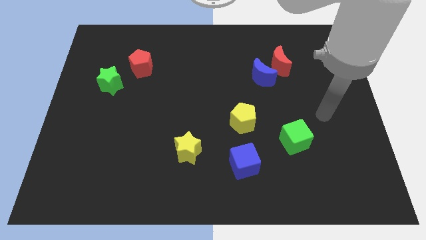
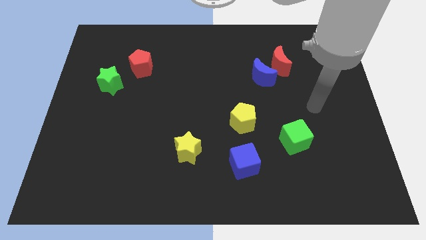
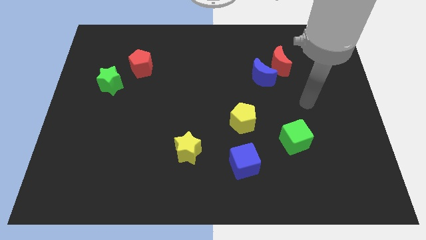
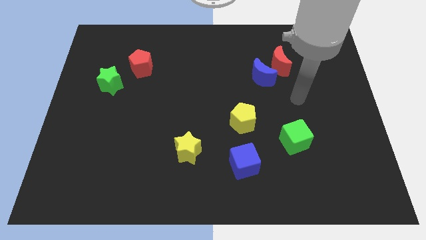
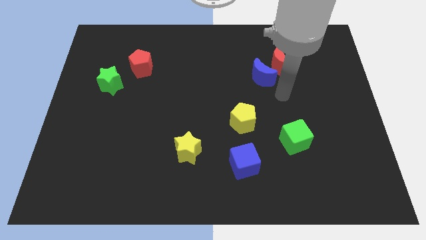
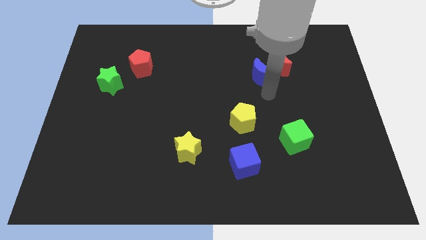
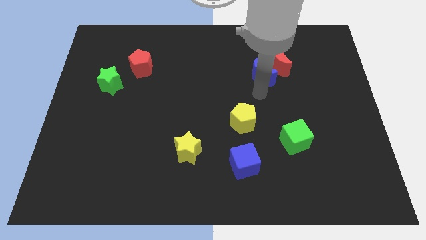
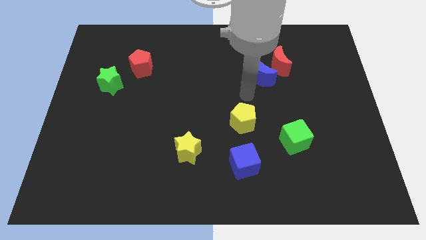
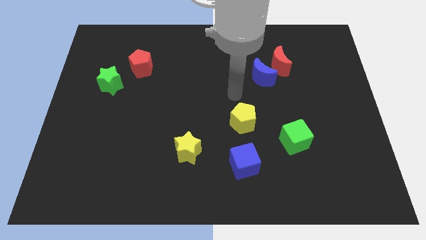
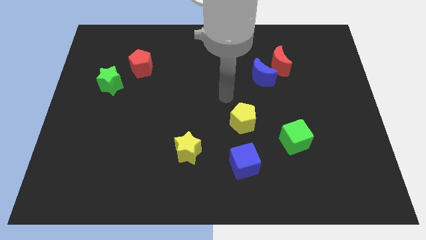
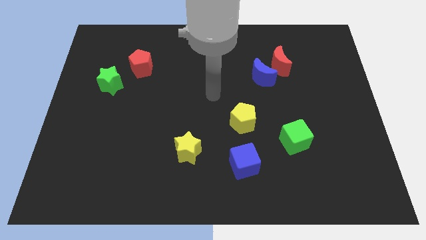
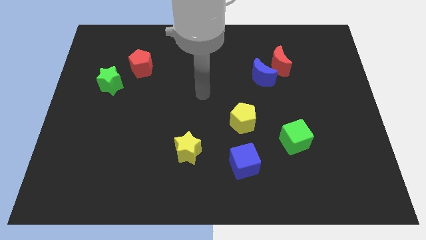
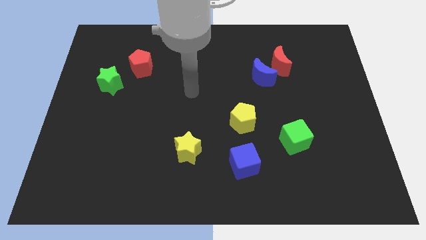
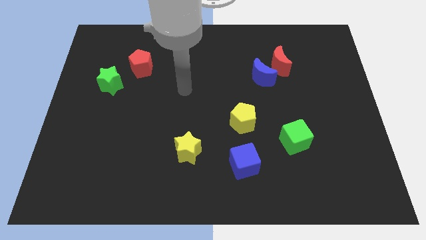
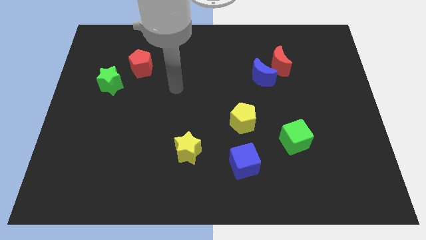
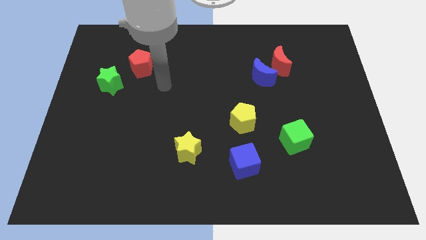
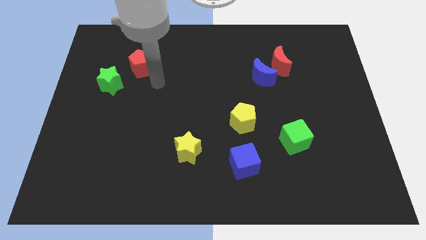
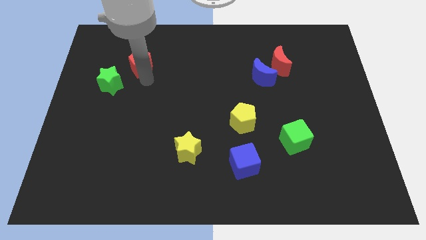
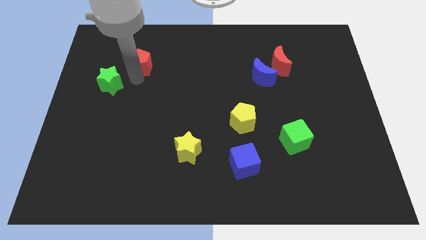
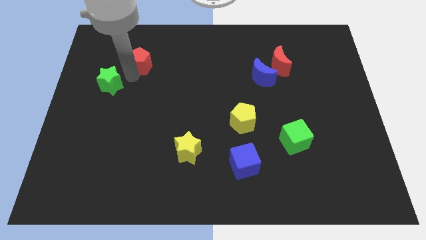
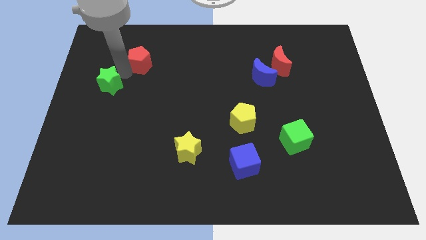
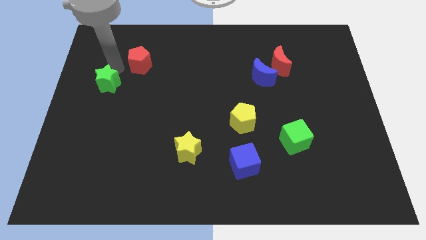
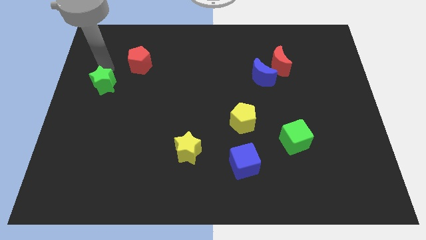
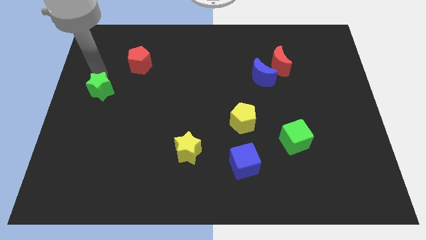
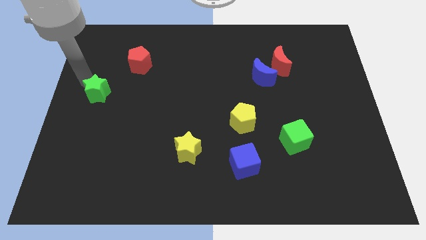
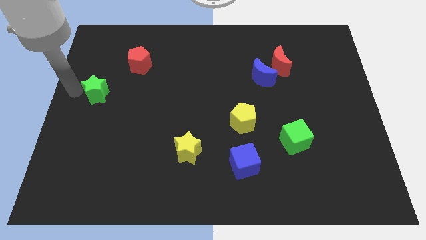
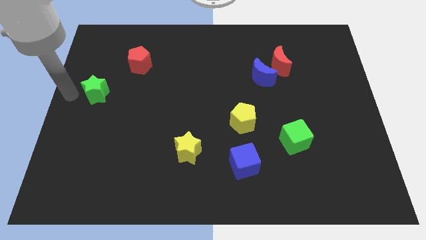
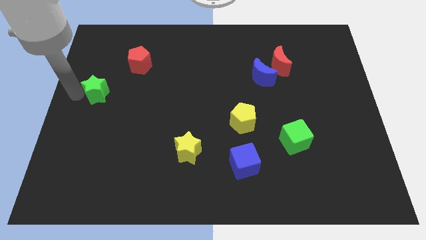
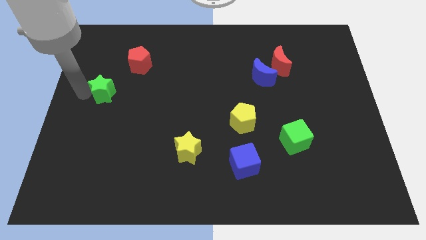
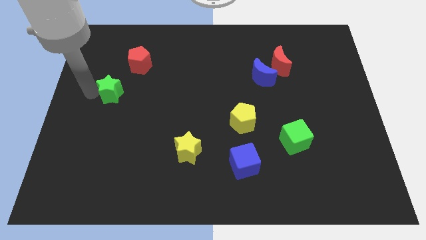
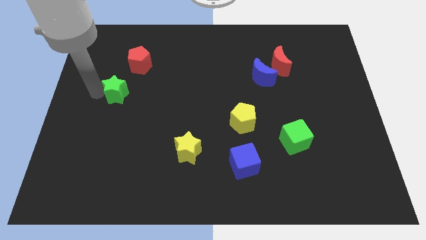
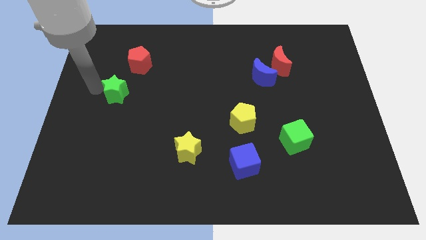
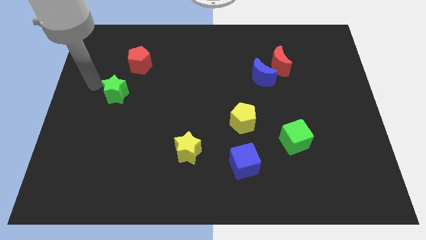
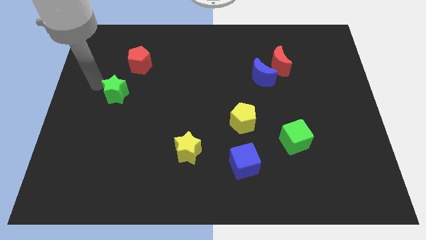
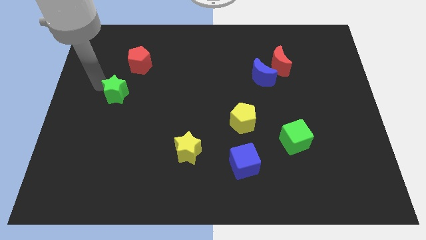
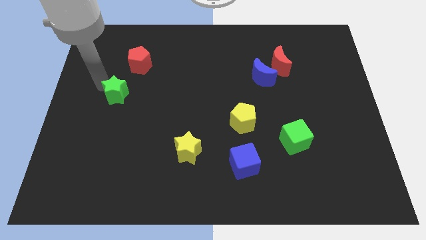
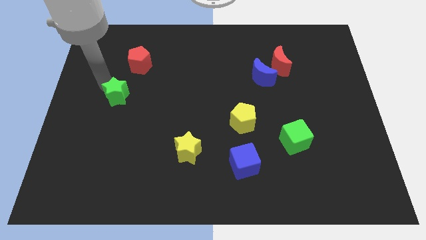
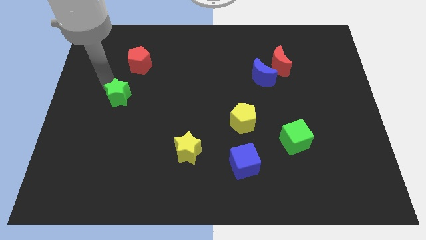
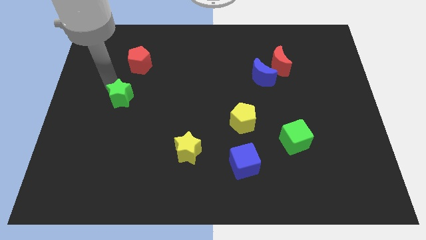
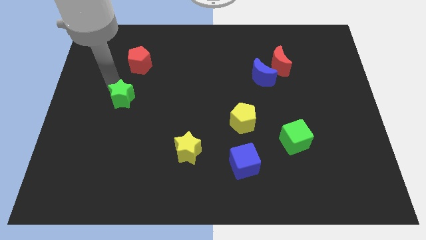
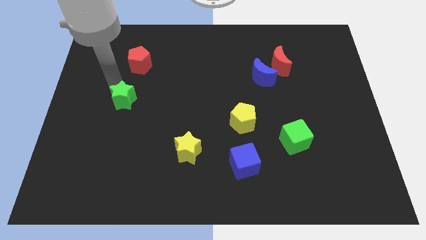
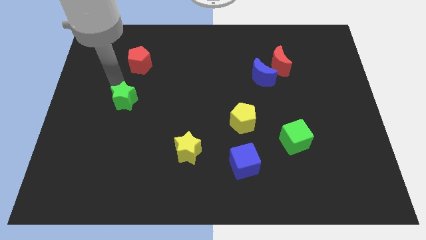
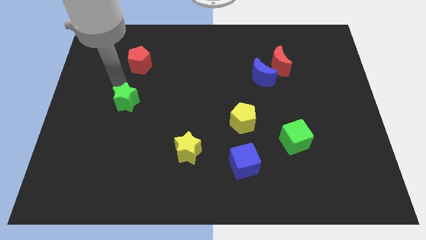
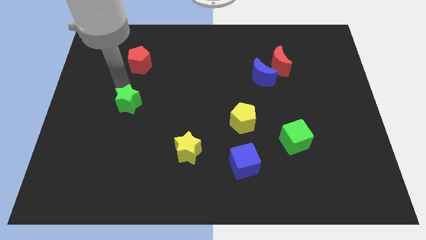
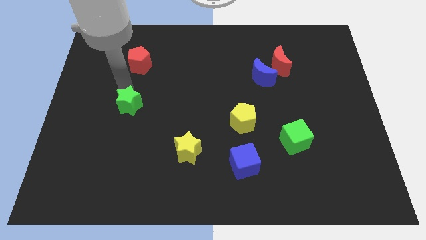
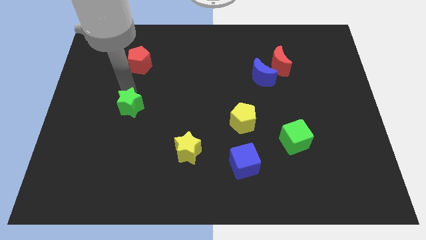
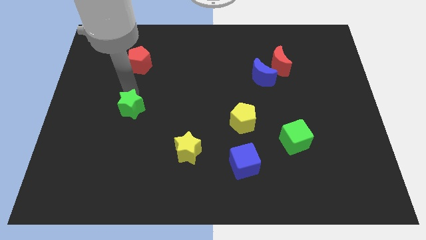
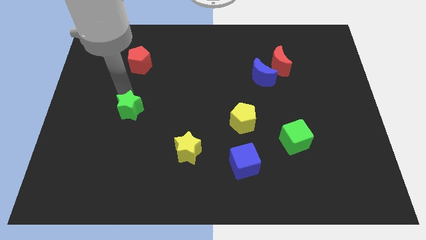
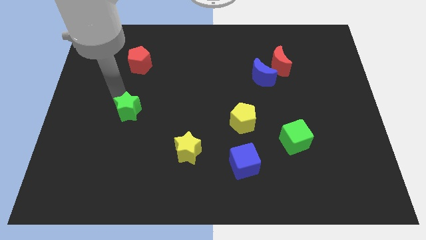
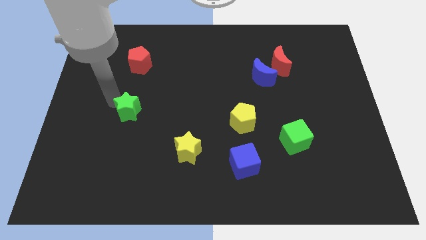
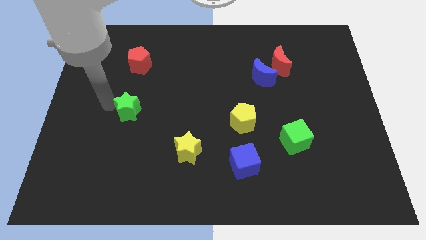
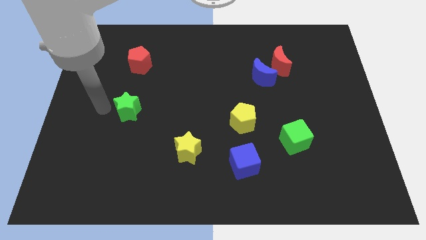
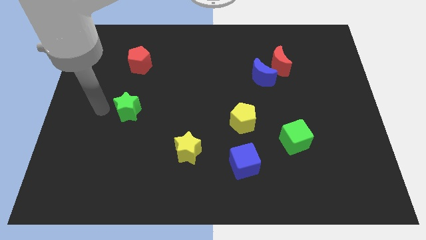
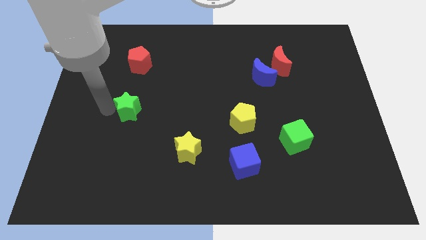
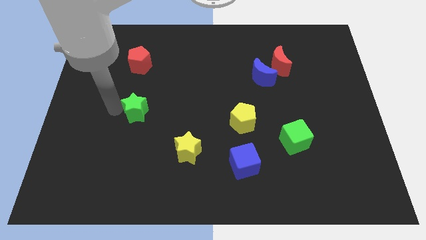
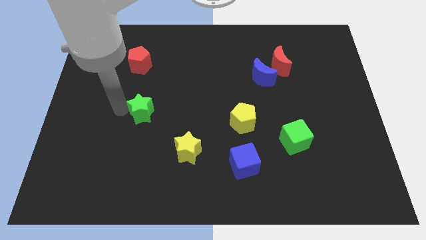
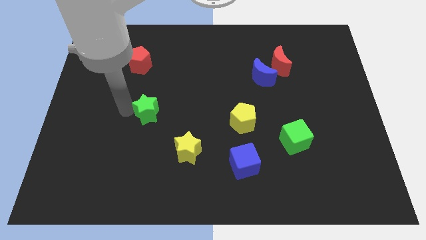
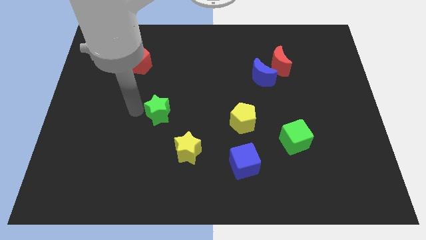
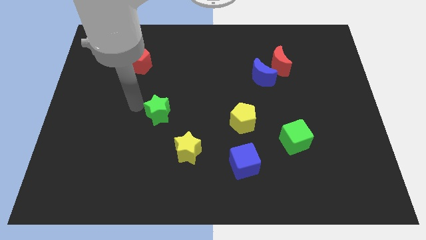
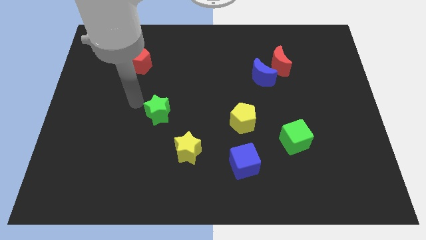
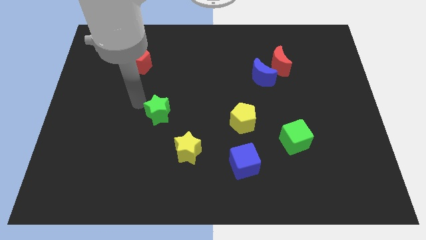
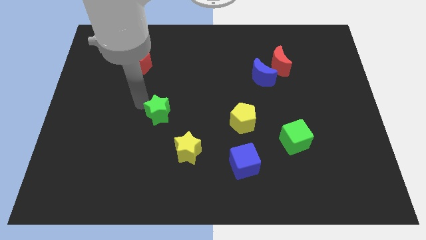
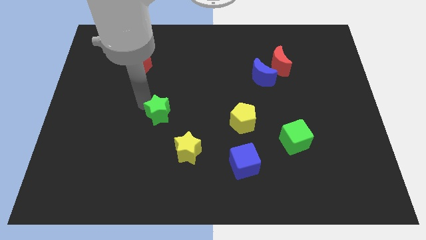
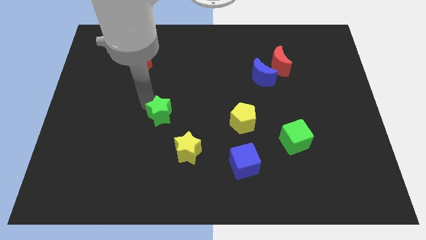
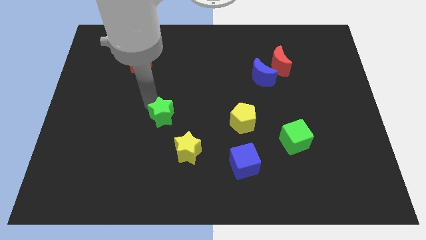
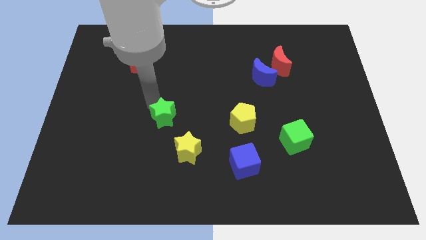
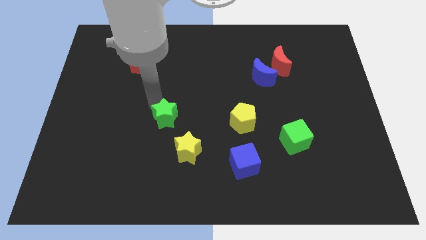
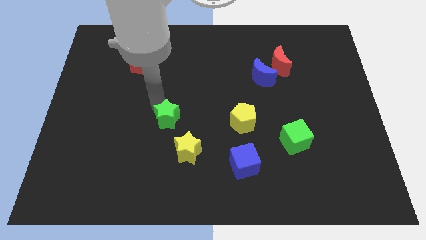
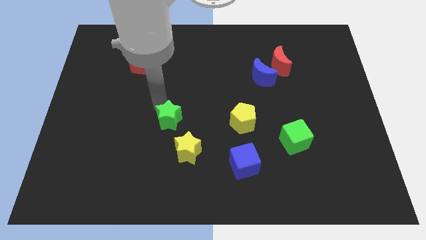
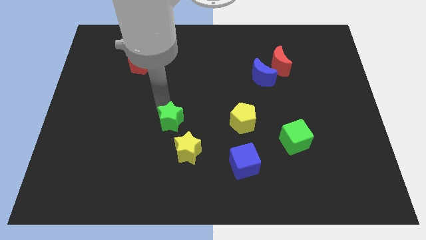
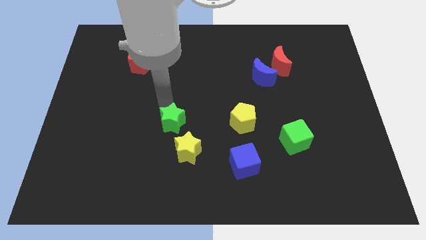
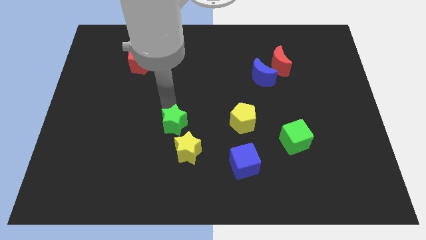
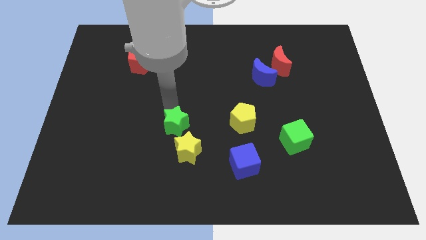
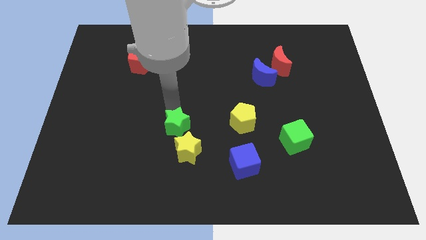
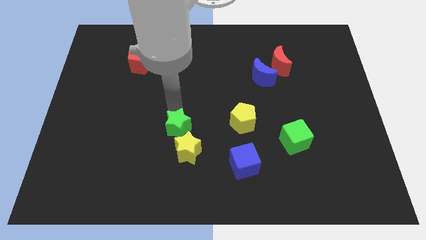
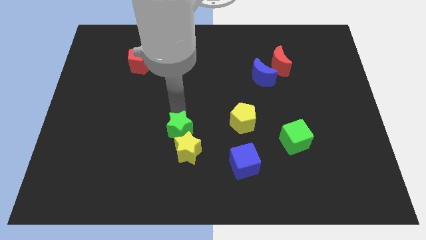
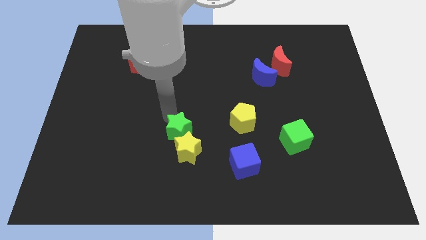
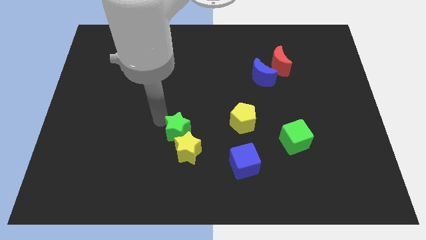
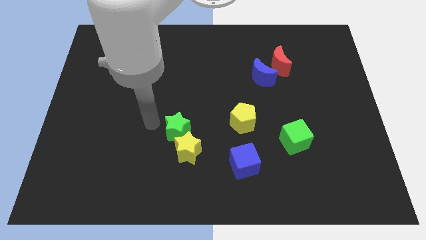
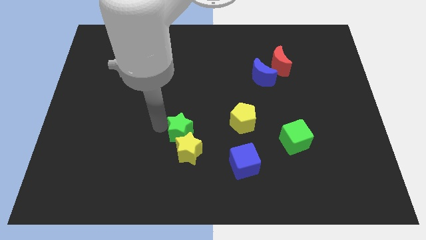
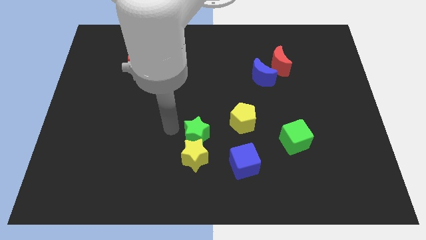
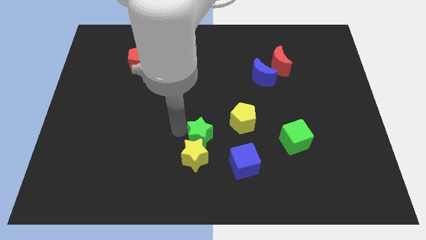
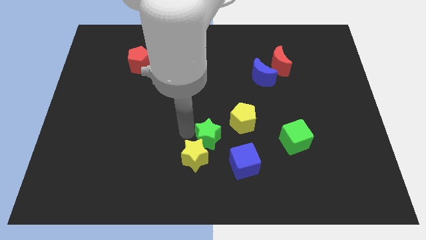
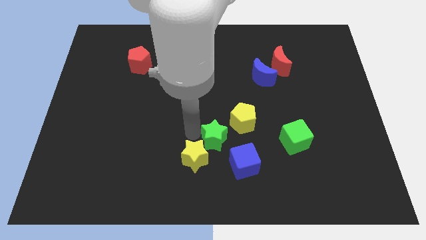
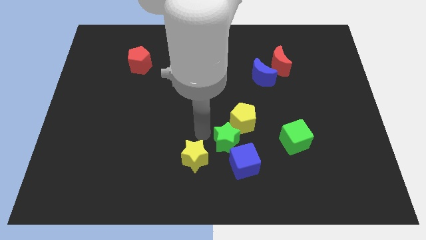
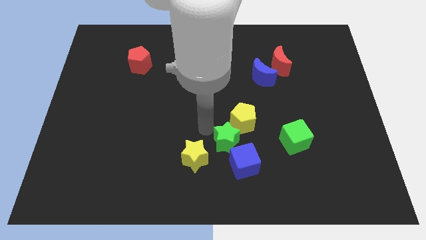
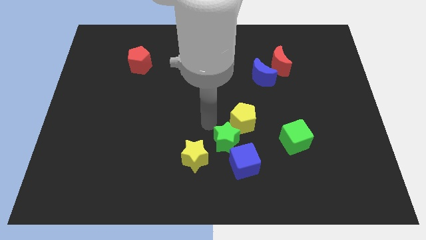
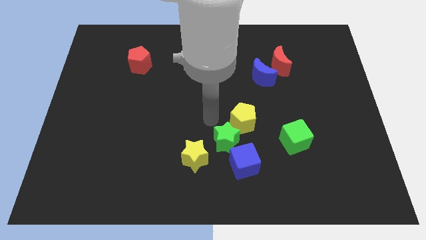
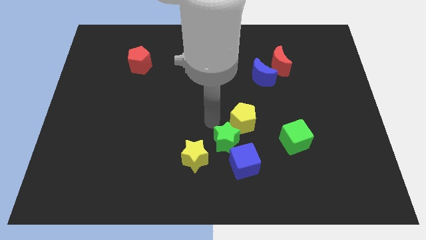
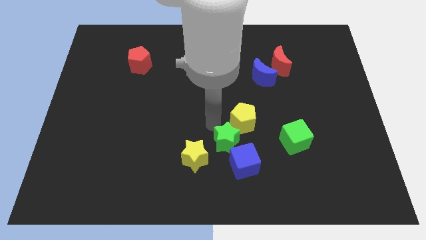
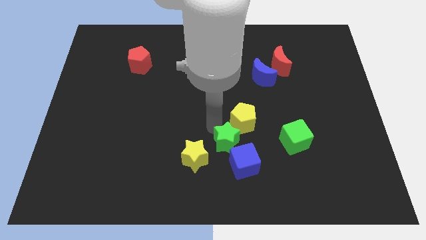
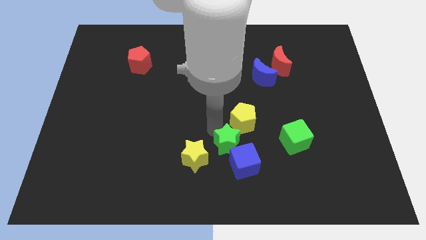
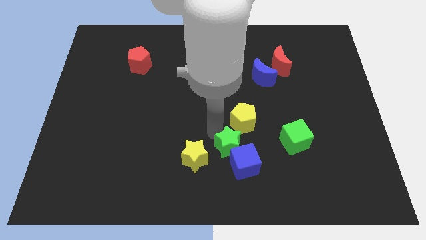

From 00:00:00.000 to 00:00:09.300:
move the green star next to the blue cube
